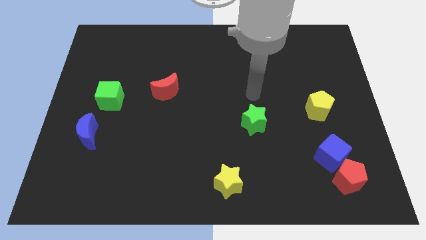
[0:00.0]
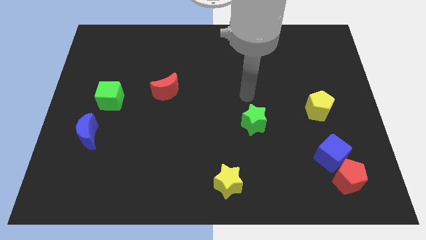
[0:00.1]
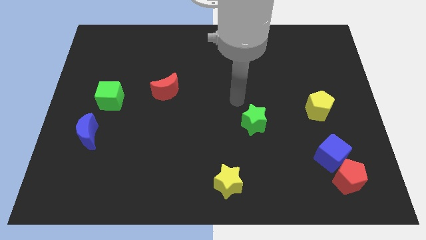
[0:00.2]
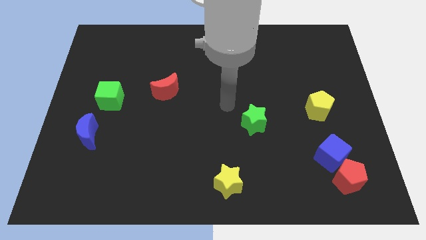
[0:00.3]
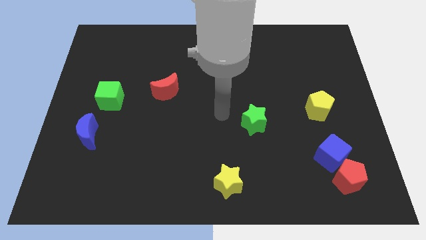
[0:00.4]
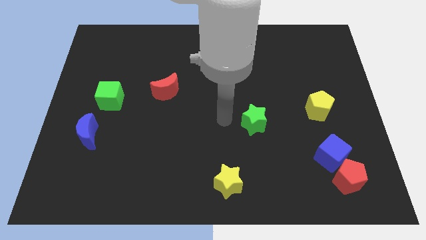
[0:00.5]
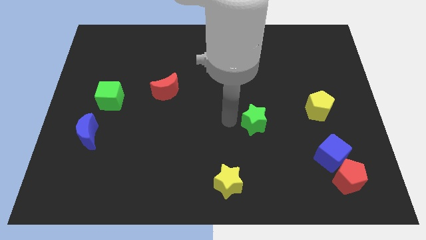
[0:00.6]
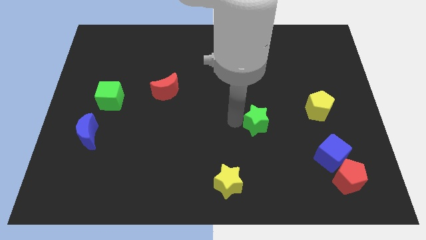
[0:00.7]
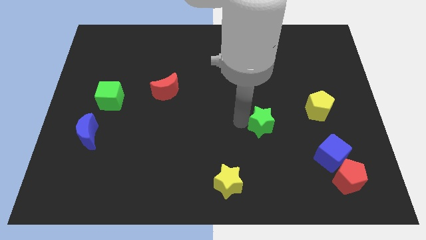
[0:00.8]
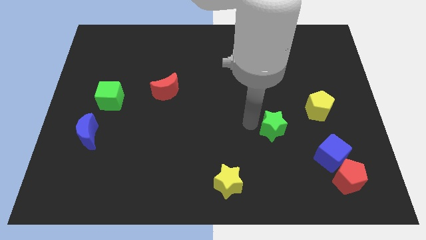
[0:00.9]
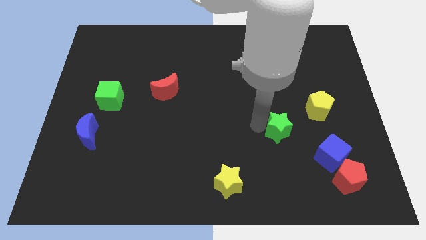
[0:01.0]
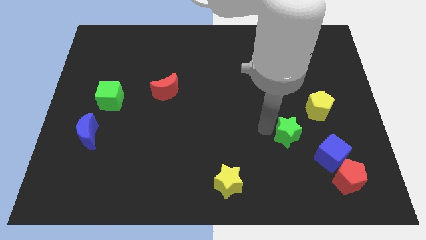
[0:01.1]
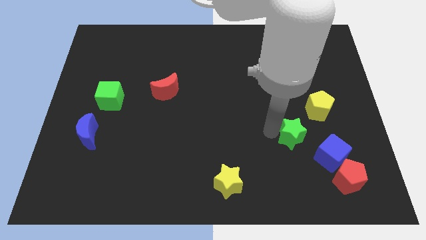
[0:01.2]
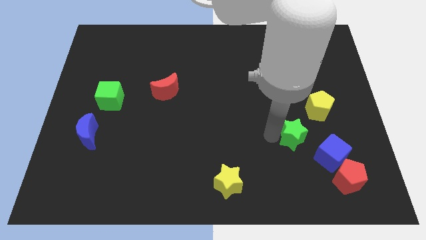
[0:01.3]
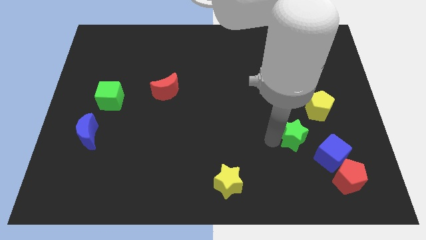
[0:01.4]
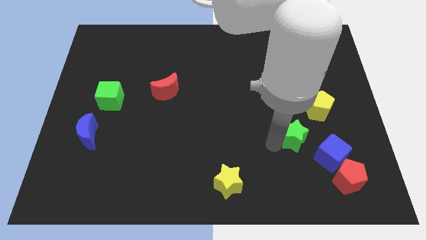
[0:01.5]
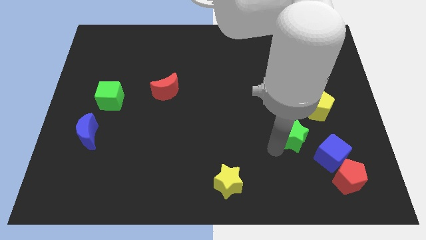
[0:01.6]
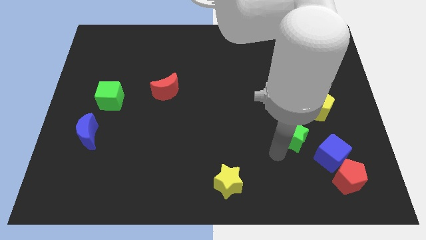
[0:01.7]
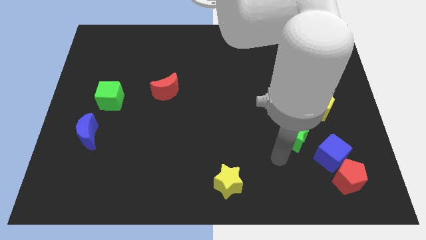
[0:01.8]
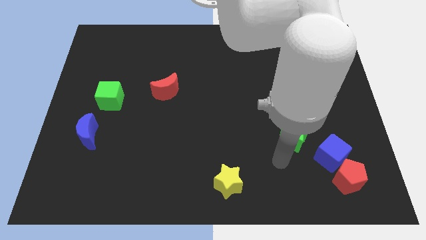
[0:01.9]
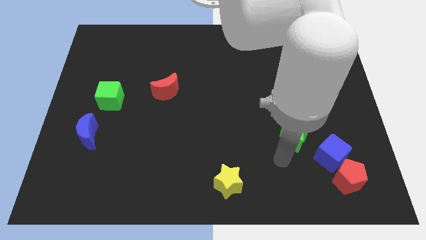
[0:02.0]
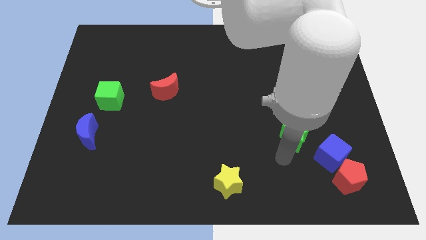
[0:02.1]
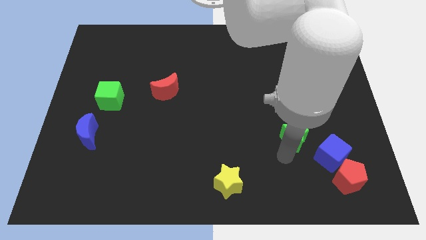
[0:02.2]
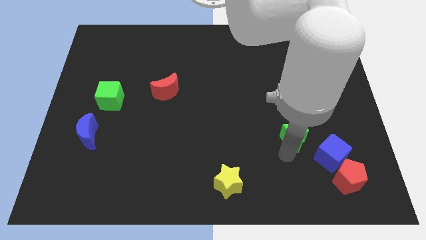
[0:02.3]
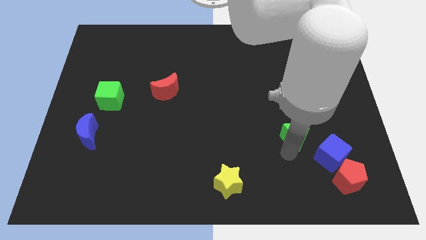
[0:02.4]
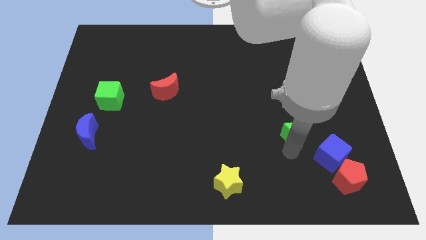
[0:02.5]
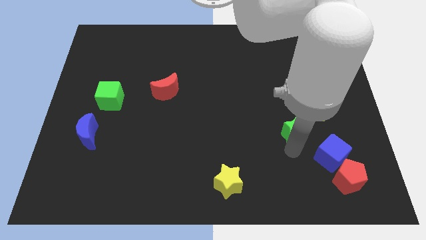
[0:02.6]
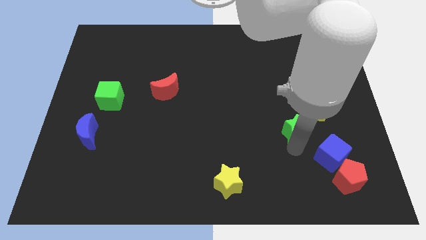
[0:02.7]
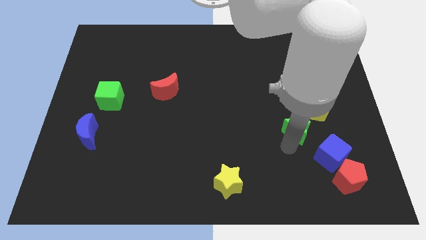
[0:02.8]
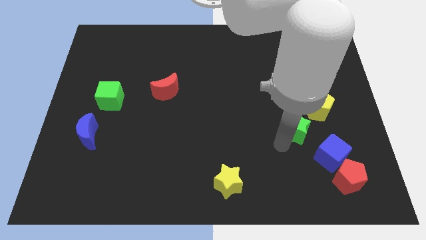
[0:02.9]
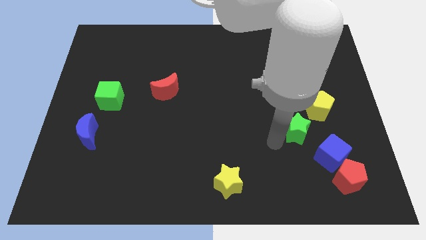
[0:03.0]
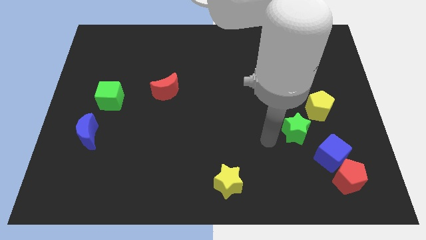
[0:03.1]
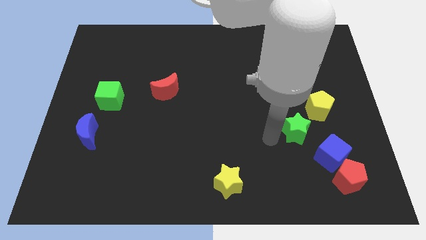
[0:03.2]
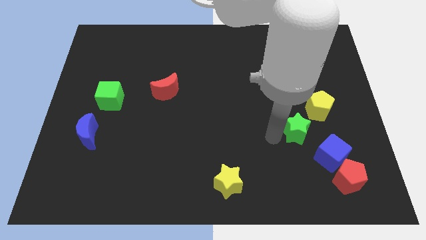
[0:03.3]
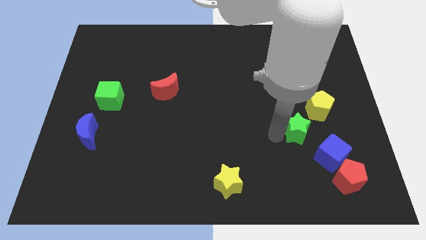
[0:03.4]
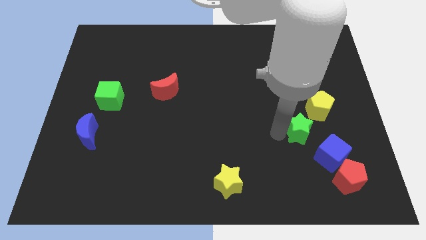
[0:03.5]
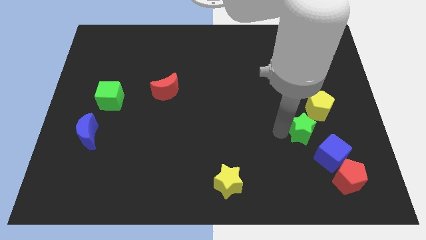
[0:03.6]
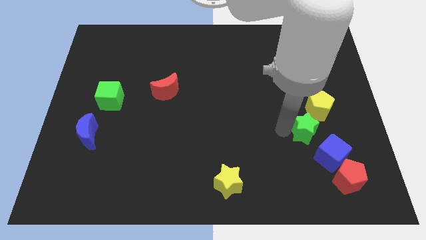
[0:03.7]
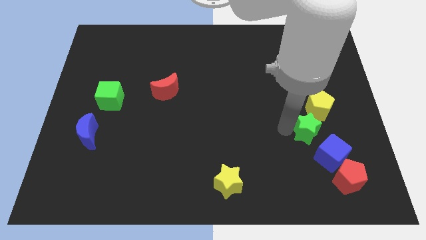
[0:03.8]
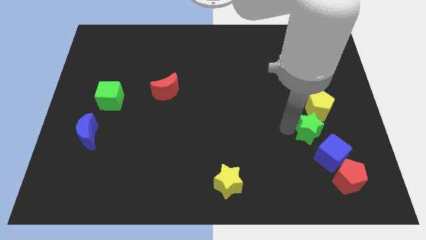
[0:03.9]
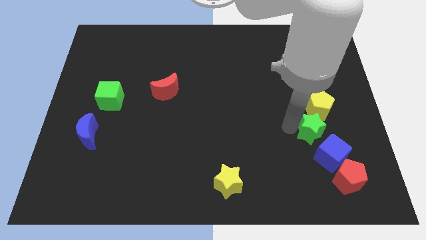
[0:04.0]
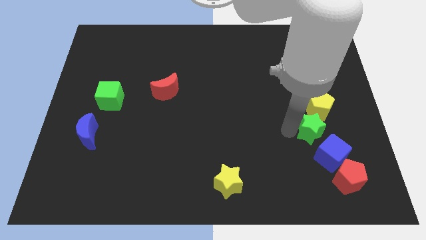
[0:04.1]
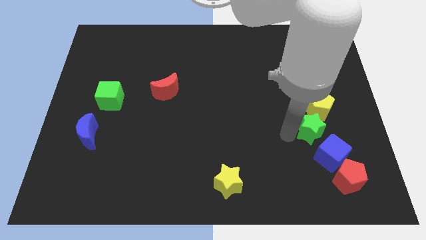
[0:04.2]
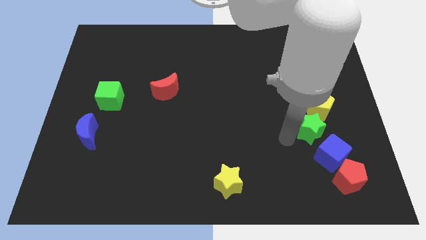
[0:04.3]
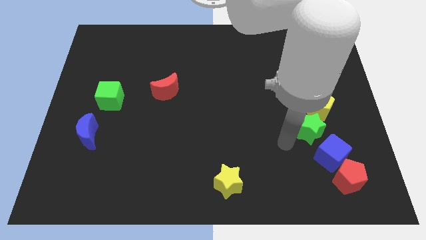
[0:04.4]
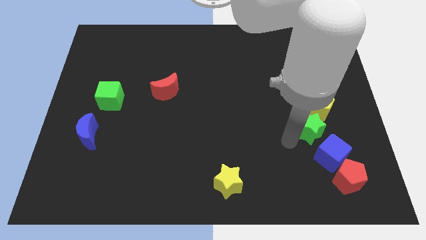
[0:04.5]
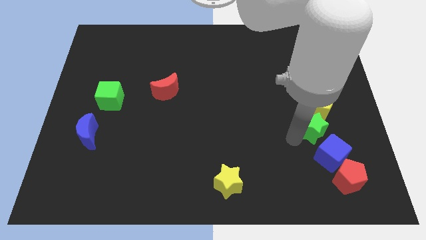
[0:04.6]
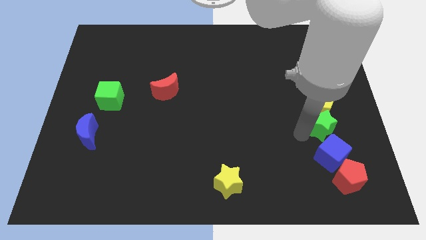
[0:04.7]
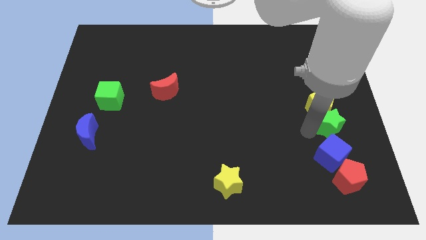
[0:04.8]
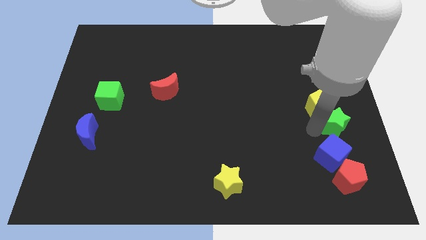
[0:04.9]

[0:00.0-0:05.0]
move the green star to the center right
